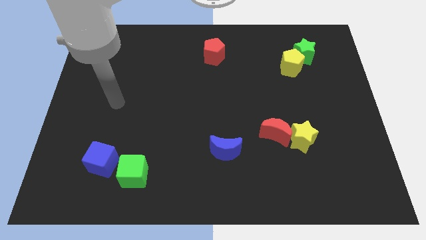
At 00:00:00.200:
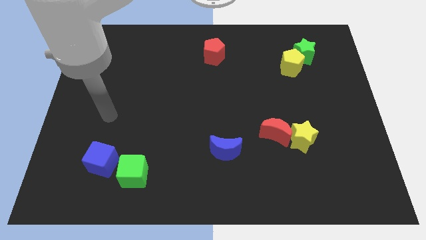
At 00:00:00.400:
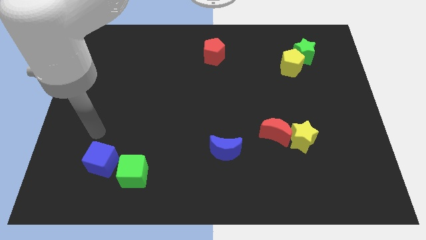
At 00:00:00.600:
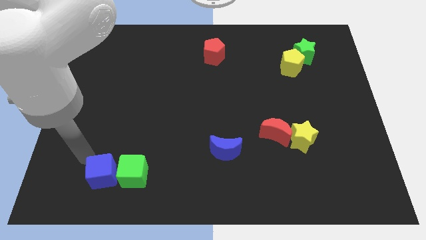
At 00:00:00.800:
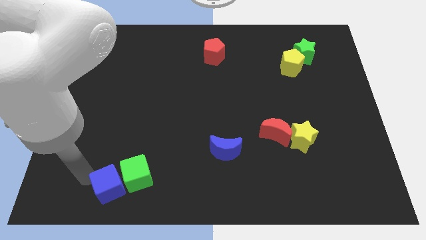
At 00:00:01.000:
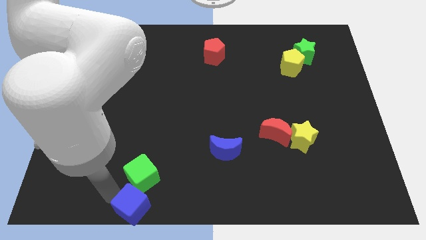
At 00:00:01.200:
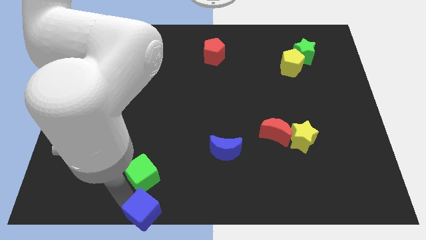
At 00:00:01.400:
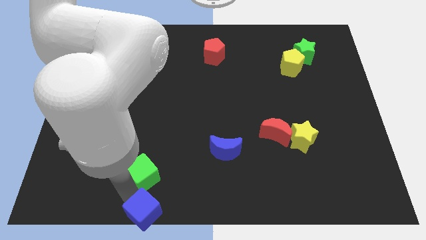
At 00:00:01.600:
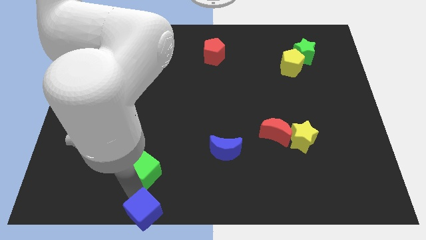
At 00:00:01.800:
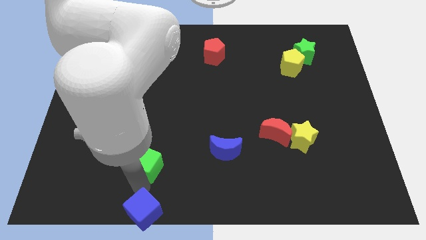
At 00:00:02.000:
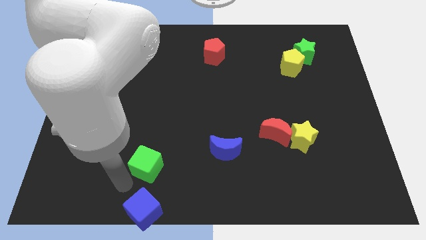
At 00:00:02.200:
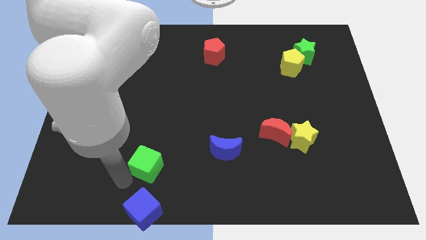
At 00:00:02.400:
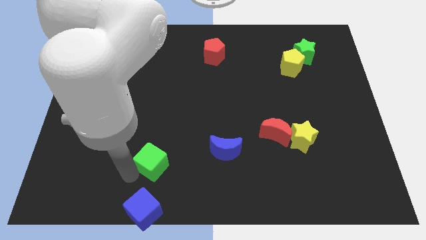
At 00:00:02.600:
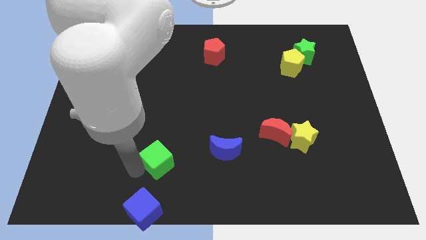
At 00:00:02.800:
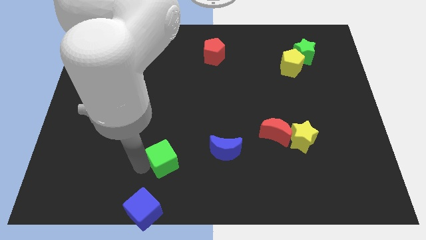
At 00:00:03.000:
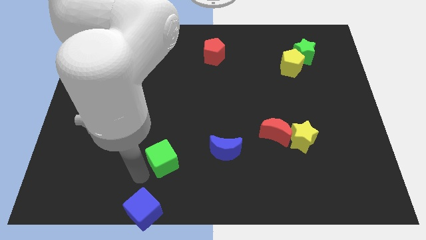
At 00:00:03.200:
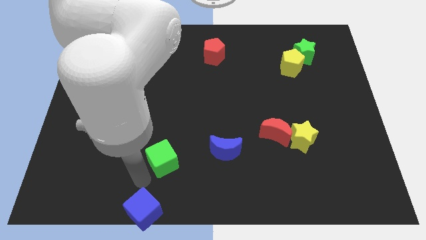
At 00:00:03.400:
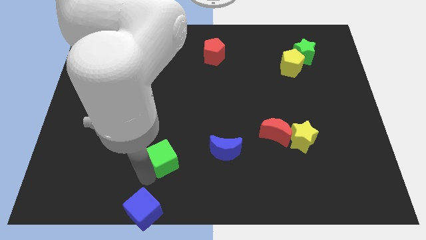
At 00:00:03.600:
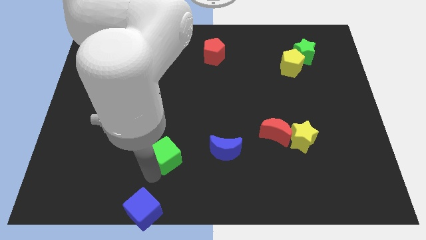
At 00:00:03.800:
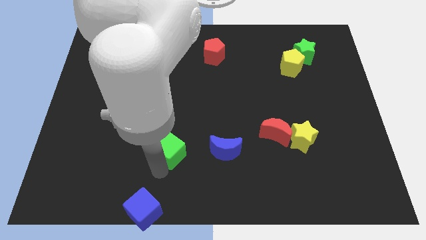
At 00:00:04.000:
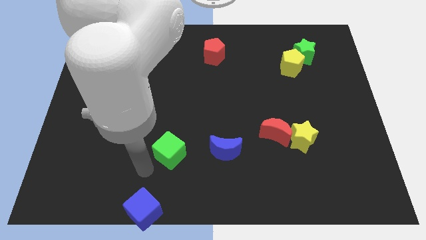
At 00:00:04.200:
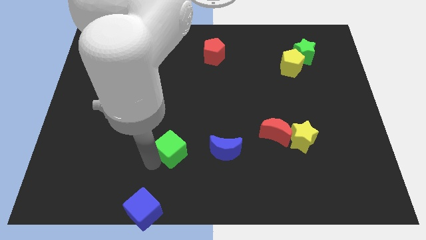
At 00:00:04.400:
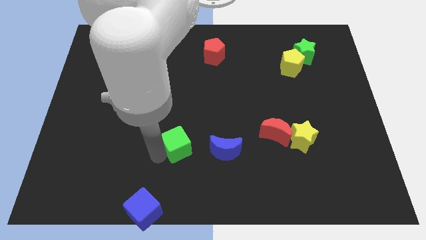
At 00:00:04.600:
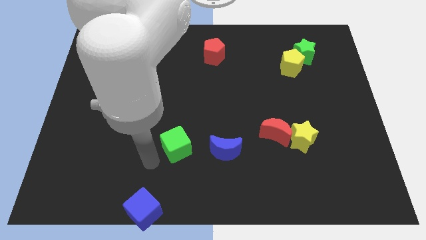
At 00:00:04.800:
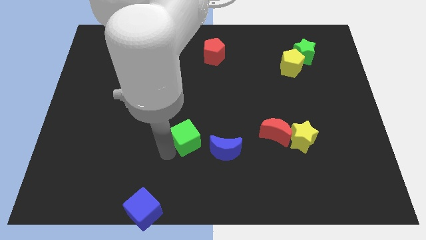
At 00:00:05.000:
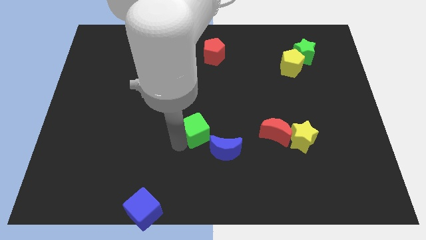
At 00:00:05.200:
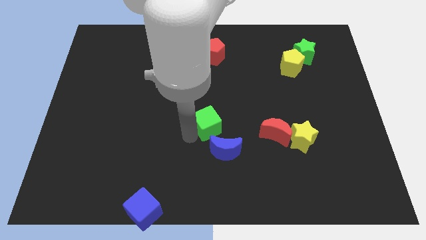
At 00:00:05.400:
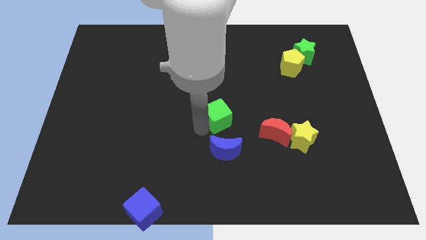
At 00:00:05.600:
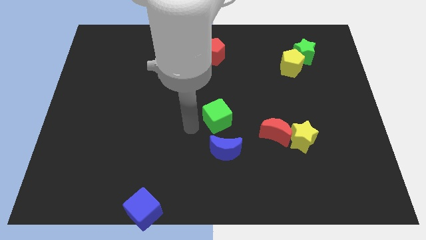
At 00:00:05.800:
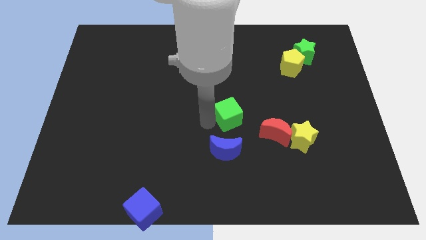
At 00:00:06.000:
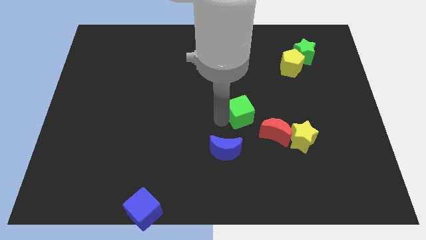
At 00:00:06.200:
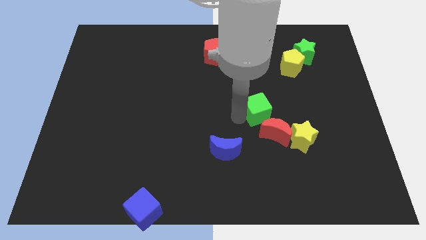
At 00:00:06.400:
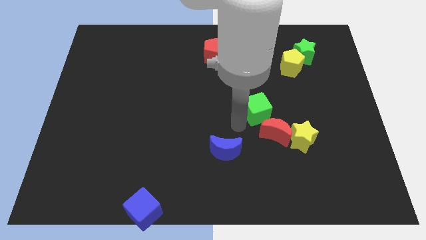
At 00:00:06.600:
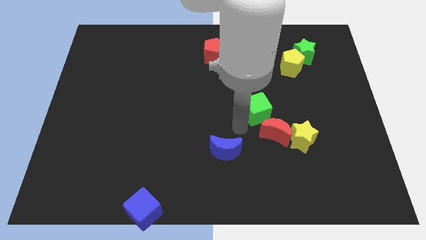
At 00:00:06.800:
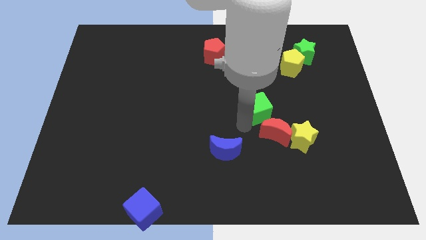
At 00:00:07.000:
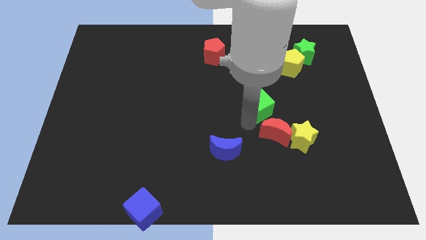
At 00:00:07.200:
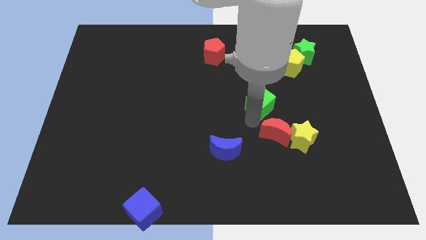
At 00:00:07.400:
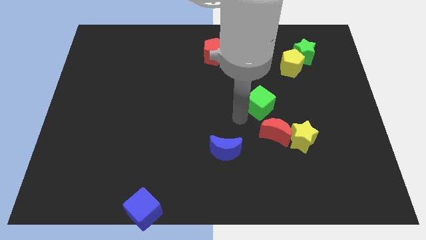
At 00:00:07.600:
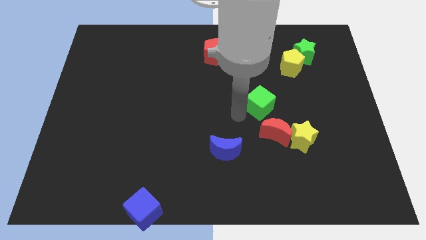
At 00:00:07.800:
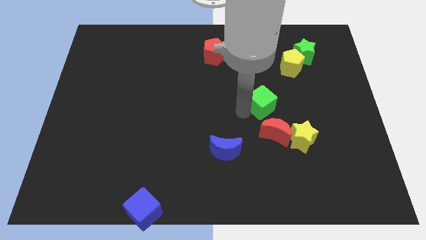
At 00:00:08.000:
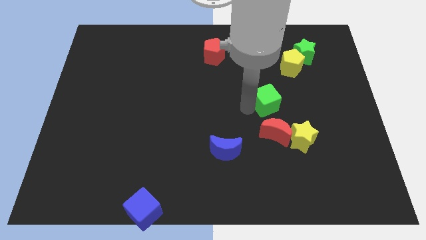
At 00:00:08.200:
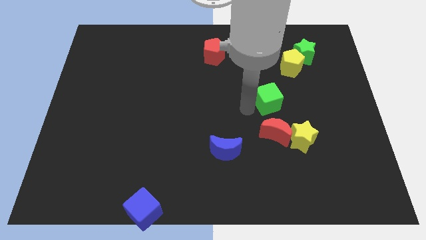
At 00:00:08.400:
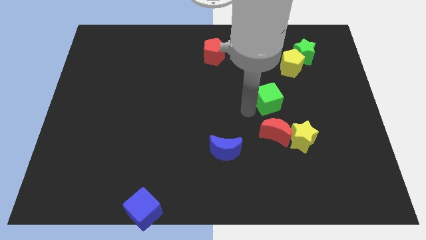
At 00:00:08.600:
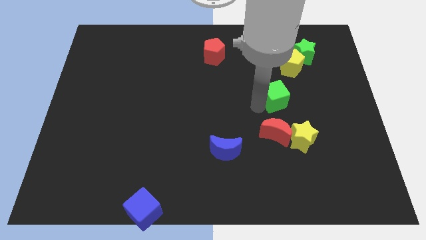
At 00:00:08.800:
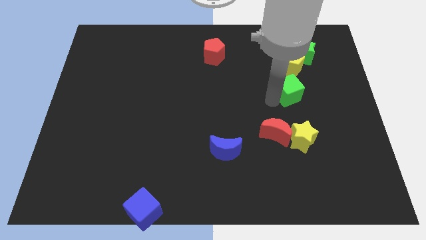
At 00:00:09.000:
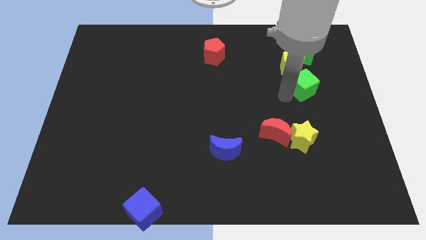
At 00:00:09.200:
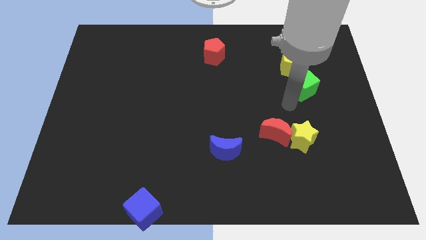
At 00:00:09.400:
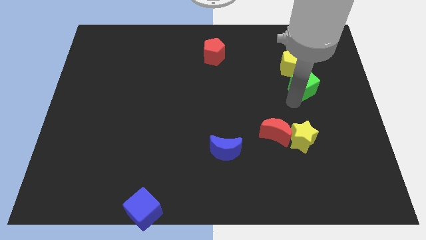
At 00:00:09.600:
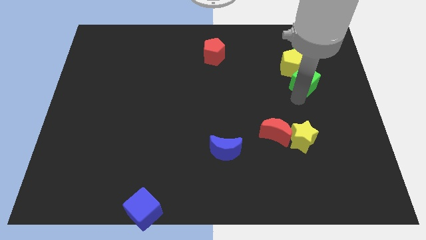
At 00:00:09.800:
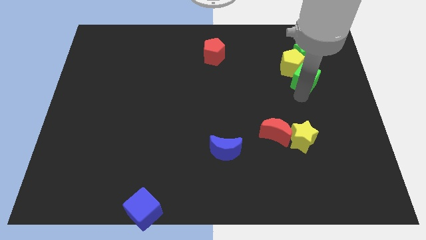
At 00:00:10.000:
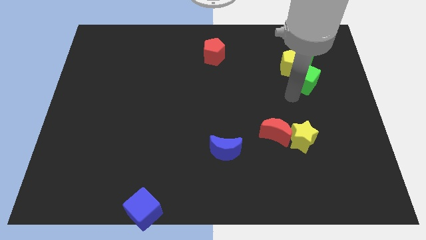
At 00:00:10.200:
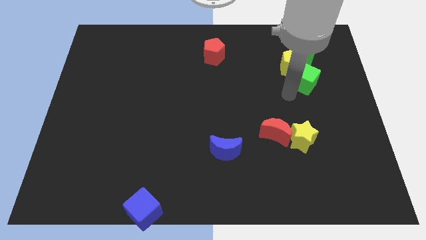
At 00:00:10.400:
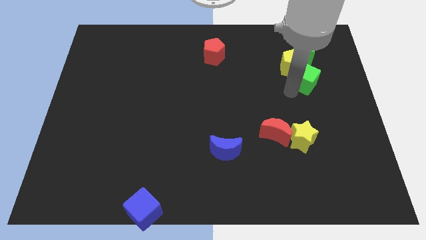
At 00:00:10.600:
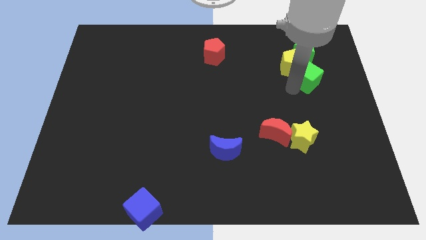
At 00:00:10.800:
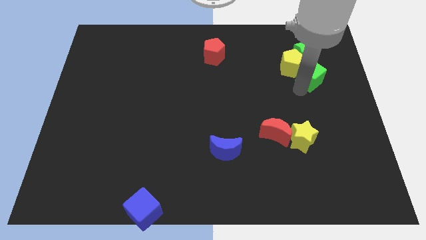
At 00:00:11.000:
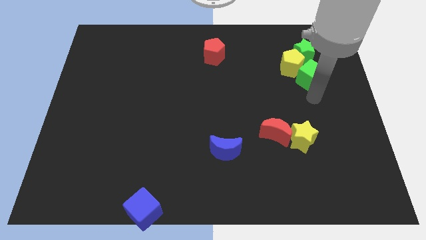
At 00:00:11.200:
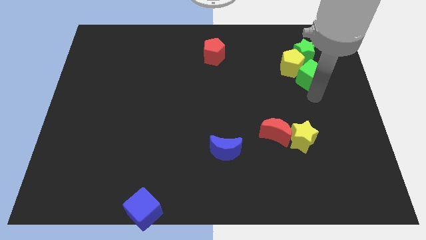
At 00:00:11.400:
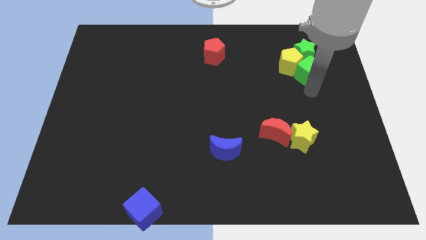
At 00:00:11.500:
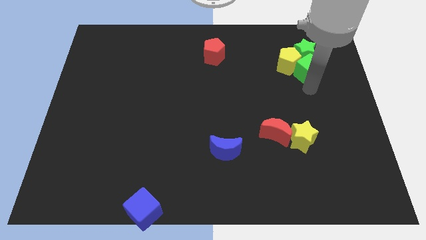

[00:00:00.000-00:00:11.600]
move the green cube next to the green star

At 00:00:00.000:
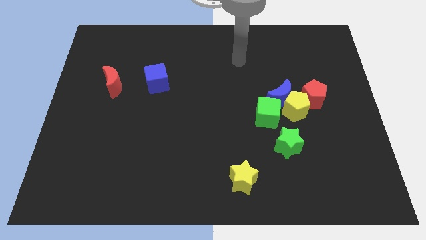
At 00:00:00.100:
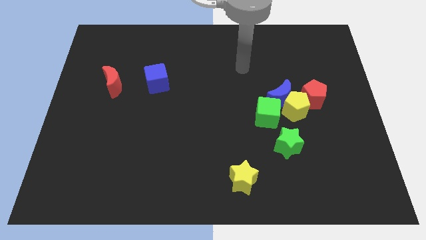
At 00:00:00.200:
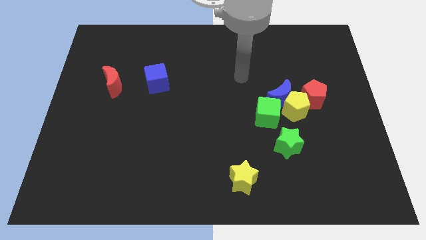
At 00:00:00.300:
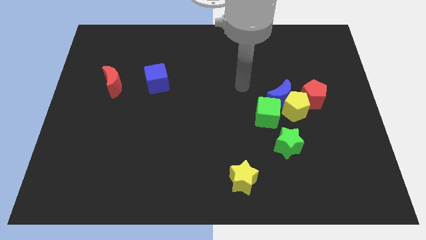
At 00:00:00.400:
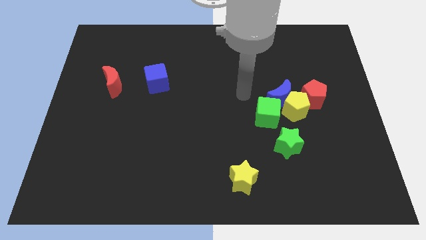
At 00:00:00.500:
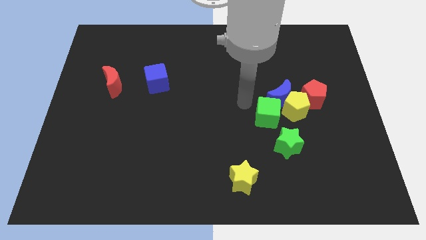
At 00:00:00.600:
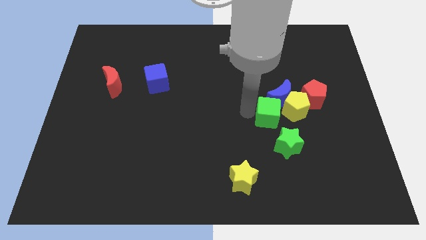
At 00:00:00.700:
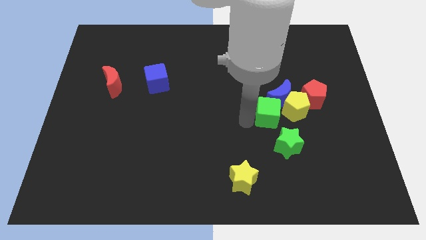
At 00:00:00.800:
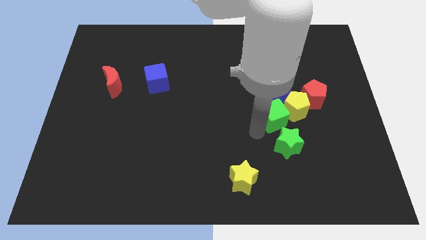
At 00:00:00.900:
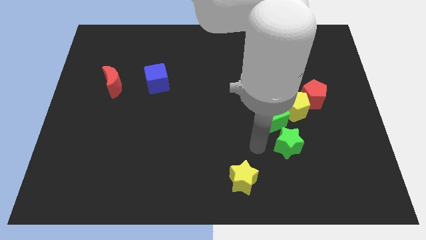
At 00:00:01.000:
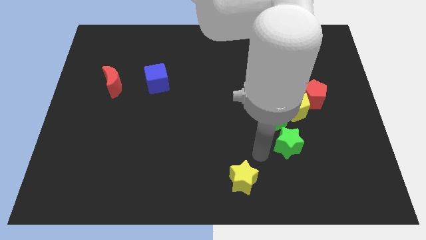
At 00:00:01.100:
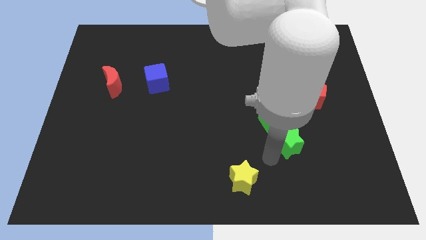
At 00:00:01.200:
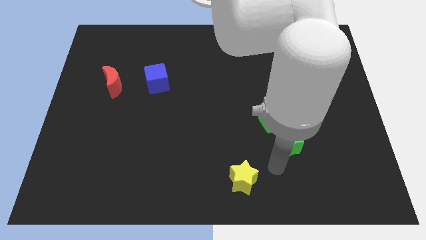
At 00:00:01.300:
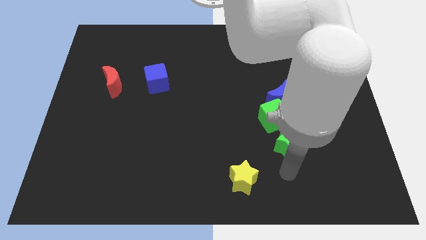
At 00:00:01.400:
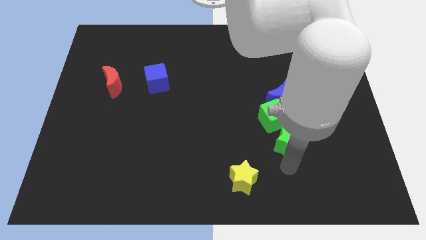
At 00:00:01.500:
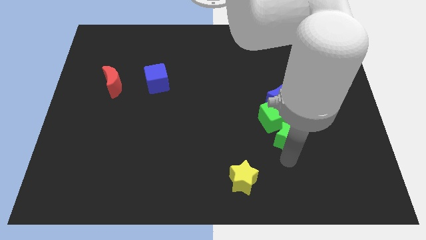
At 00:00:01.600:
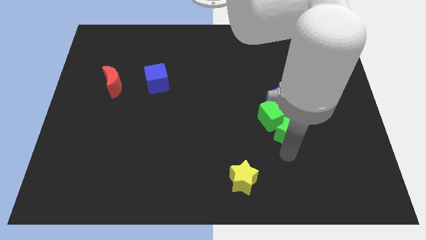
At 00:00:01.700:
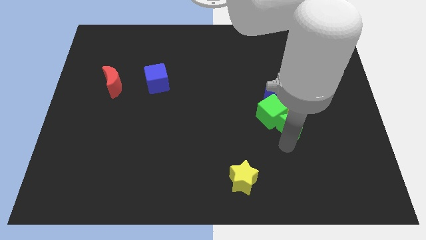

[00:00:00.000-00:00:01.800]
slide the green star towards the yellow pentagon
